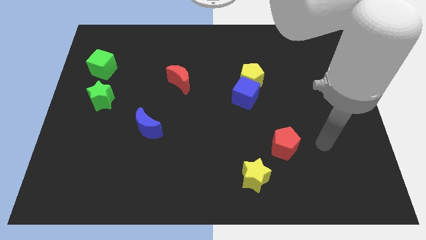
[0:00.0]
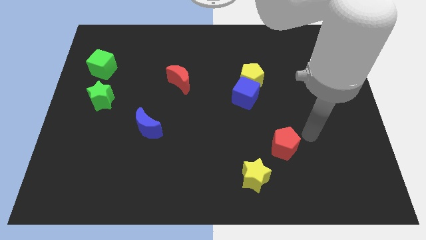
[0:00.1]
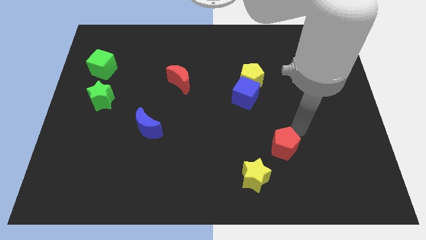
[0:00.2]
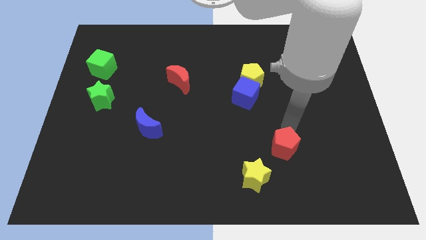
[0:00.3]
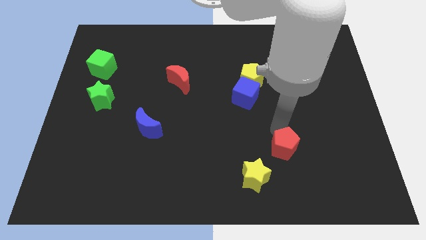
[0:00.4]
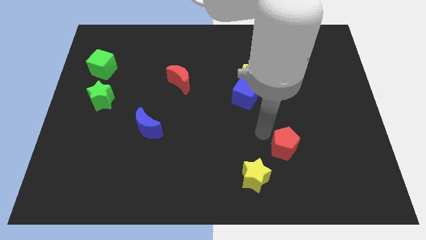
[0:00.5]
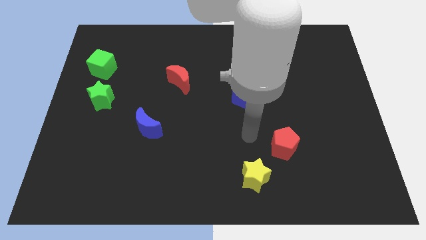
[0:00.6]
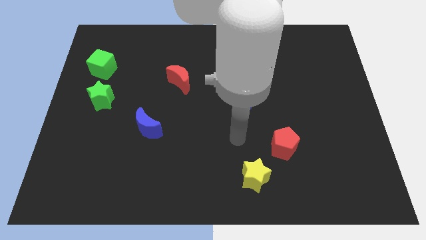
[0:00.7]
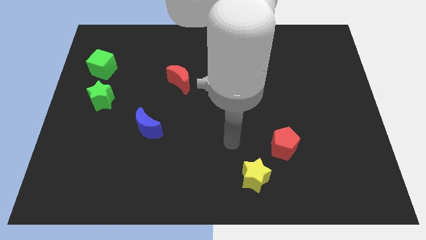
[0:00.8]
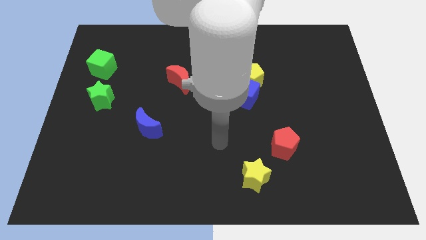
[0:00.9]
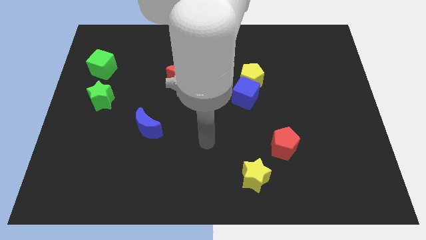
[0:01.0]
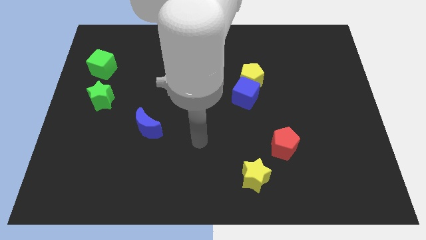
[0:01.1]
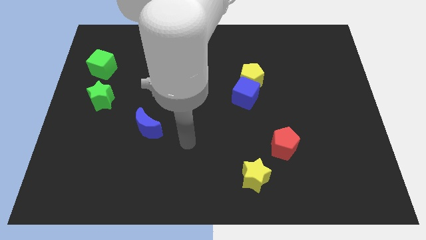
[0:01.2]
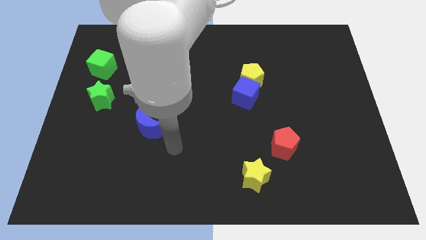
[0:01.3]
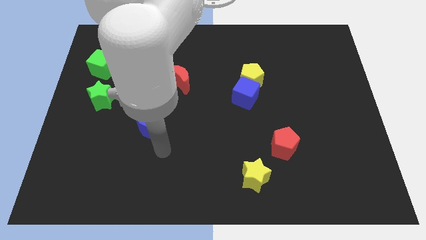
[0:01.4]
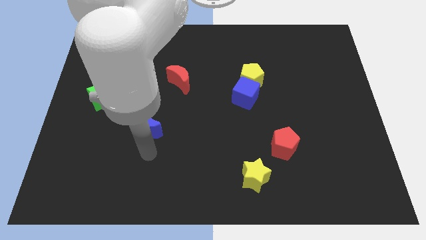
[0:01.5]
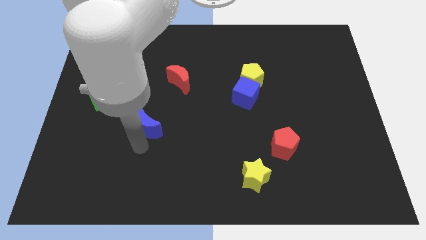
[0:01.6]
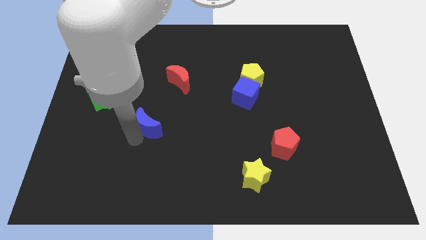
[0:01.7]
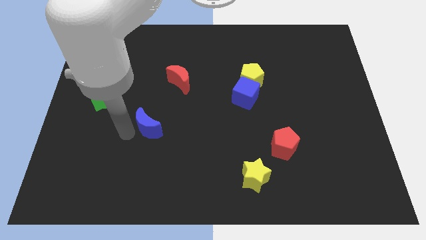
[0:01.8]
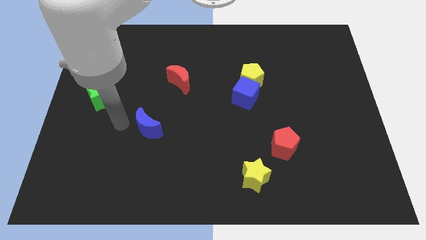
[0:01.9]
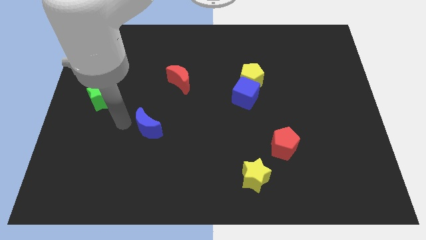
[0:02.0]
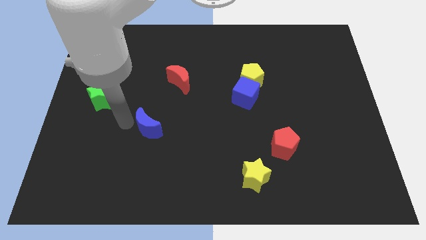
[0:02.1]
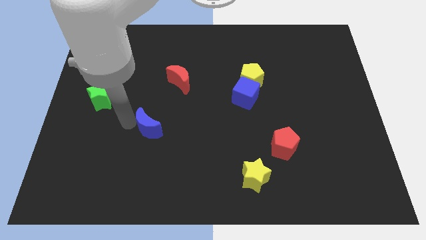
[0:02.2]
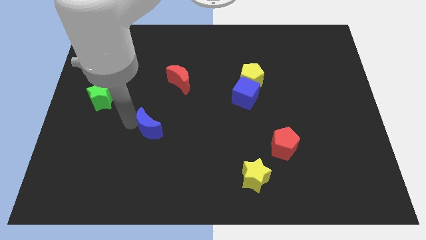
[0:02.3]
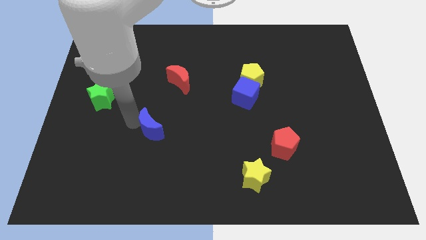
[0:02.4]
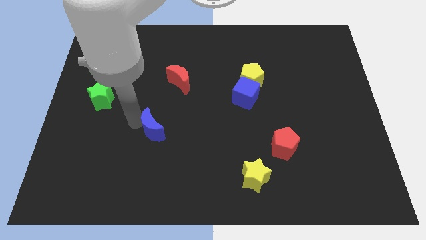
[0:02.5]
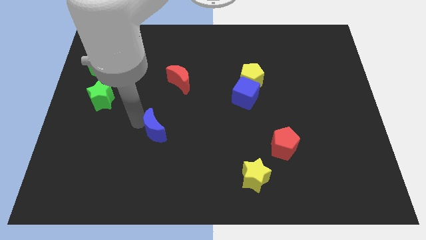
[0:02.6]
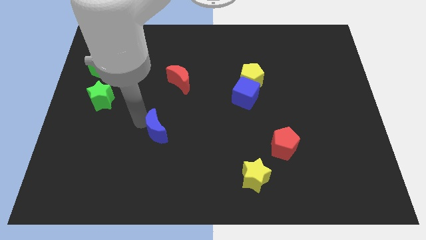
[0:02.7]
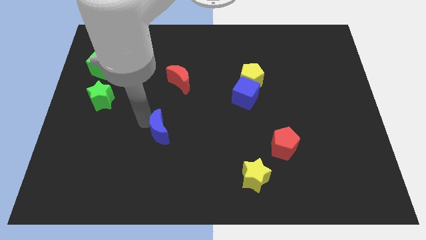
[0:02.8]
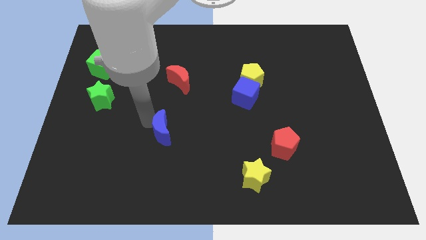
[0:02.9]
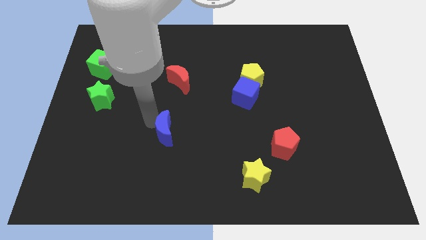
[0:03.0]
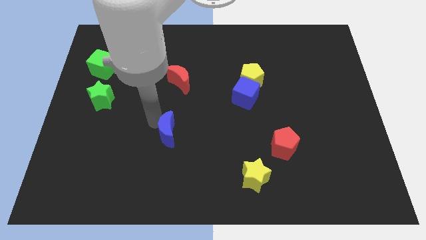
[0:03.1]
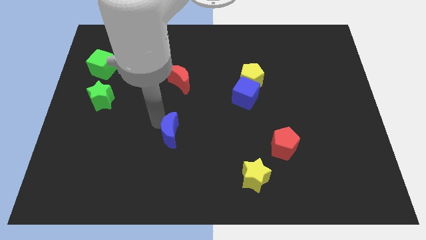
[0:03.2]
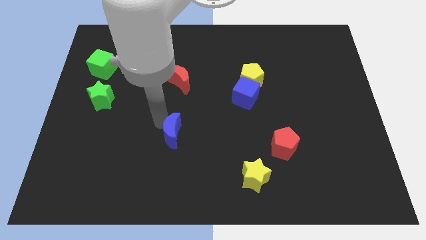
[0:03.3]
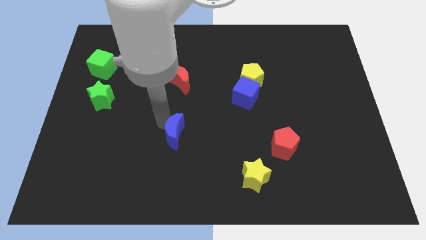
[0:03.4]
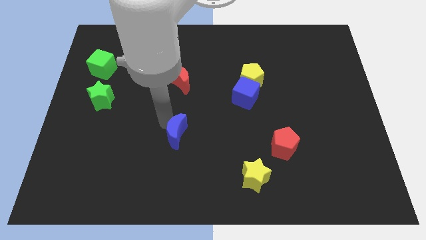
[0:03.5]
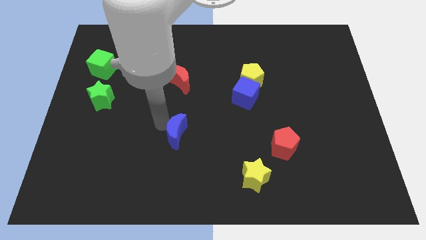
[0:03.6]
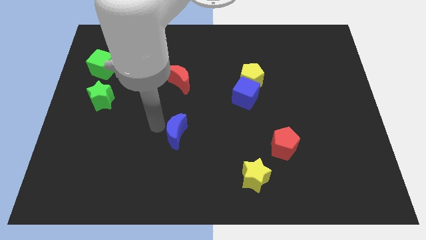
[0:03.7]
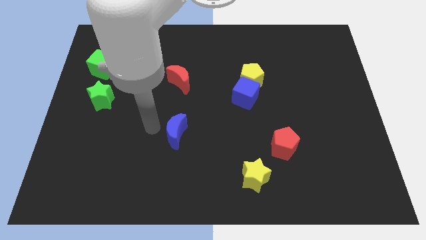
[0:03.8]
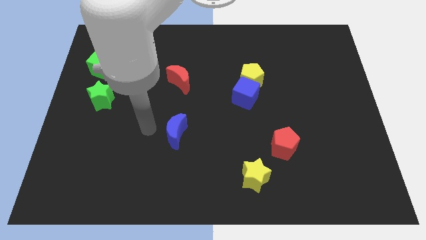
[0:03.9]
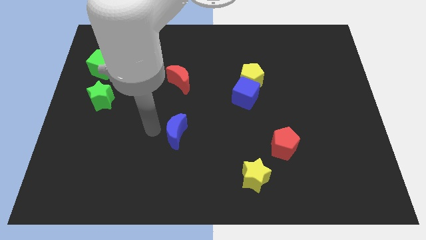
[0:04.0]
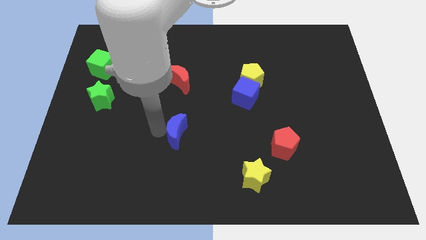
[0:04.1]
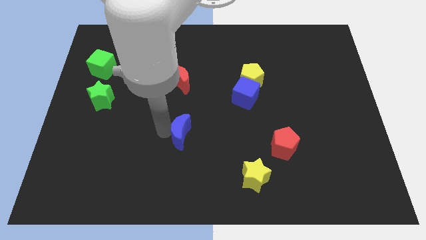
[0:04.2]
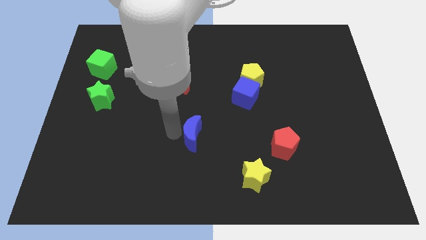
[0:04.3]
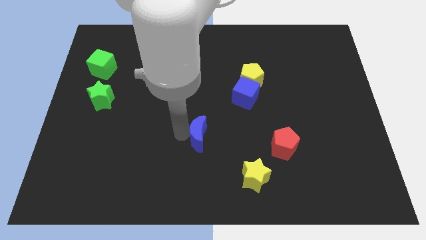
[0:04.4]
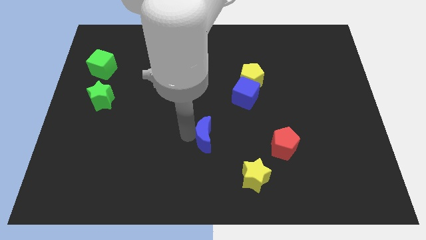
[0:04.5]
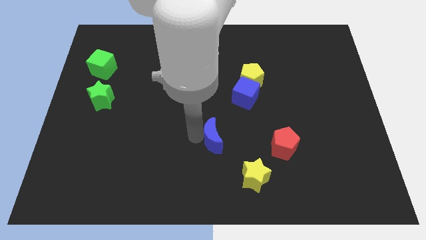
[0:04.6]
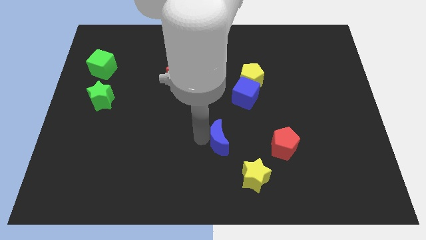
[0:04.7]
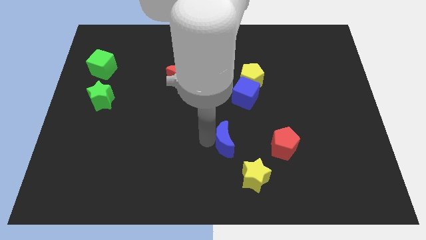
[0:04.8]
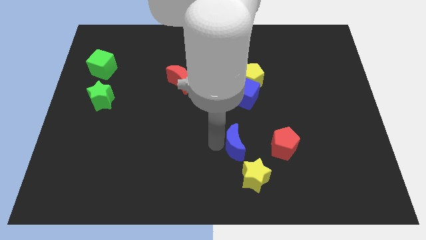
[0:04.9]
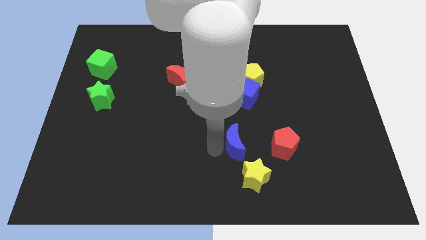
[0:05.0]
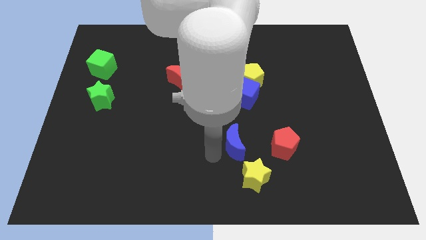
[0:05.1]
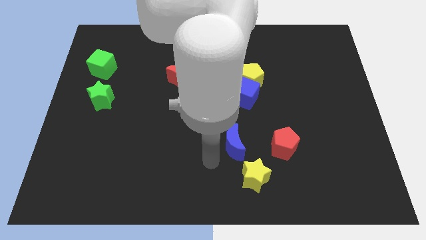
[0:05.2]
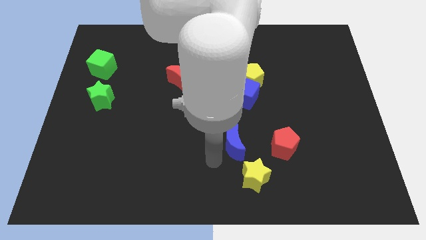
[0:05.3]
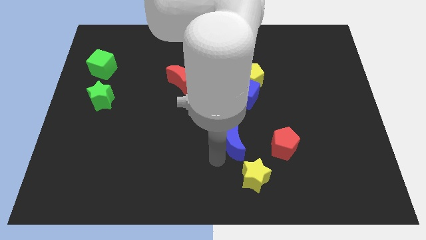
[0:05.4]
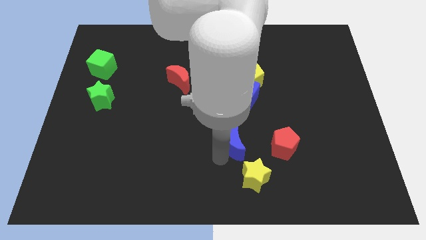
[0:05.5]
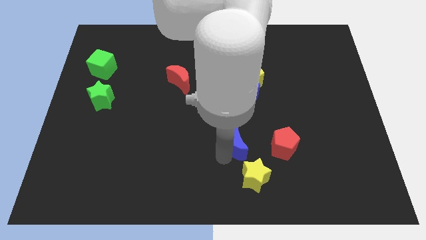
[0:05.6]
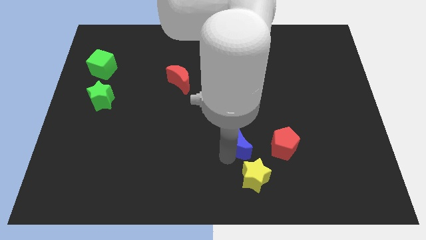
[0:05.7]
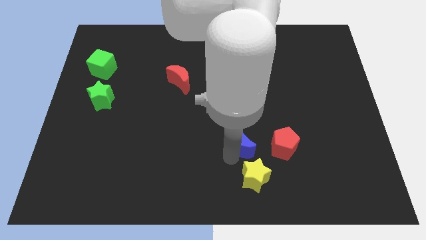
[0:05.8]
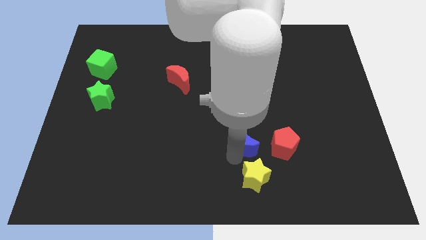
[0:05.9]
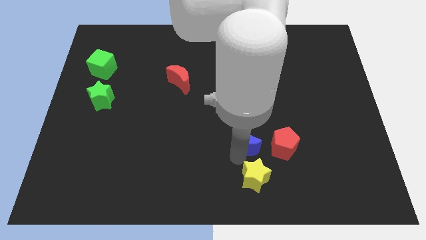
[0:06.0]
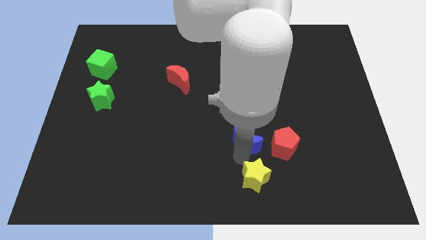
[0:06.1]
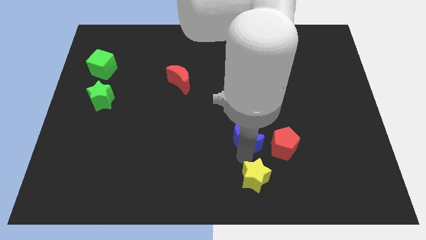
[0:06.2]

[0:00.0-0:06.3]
move the blue moon diagonally up and to the left of the red pentagon

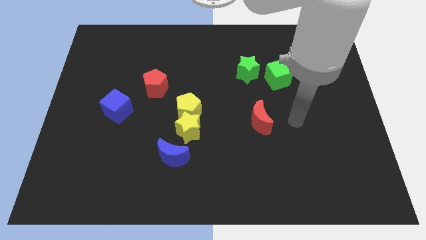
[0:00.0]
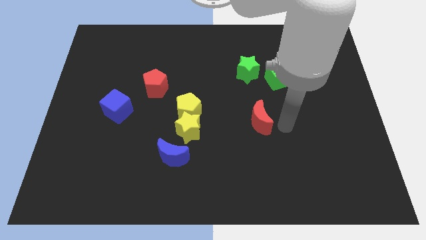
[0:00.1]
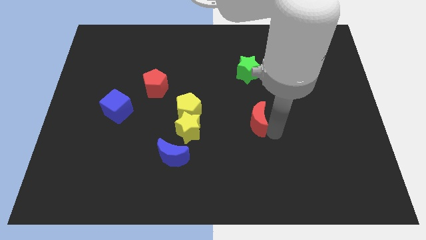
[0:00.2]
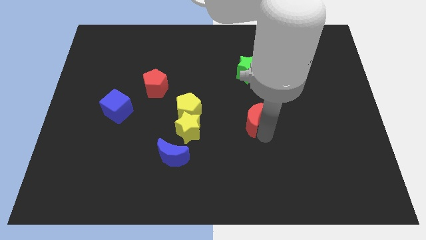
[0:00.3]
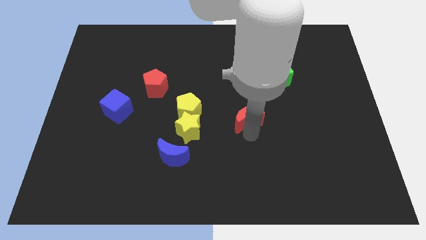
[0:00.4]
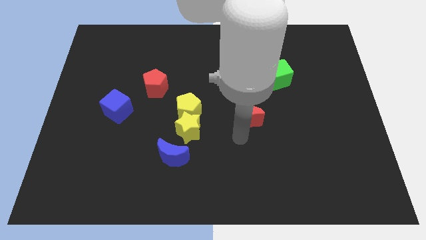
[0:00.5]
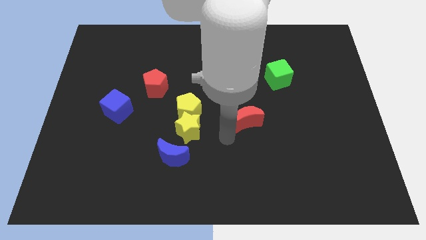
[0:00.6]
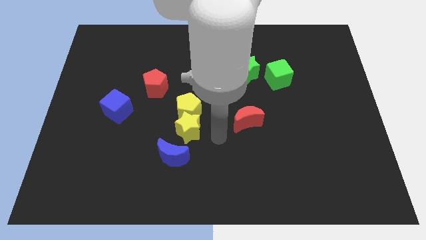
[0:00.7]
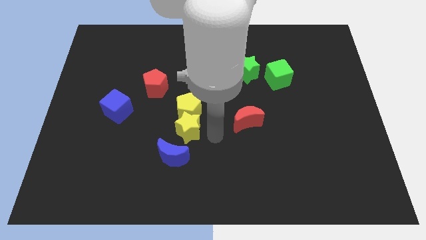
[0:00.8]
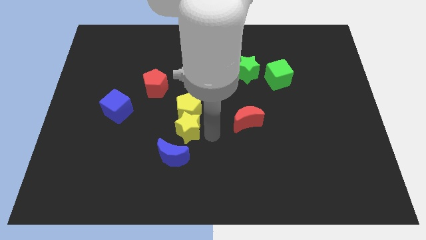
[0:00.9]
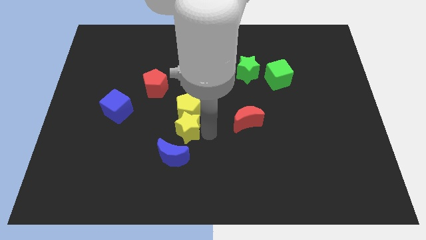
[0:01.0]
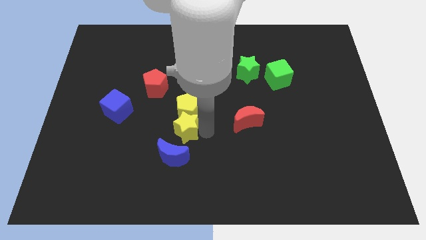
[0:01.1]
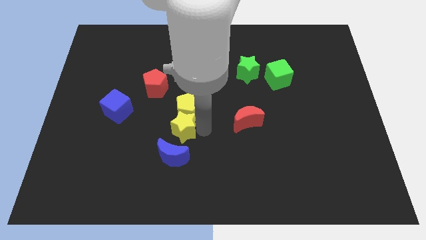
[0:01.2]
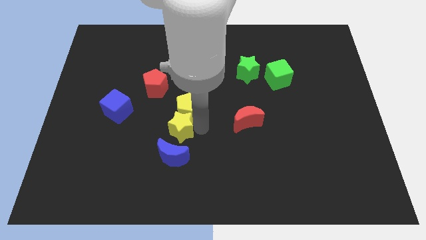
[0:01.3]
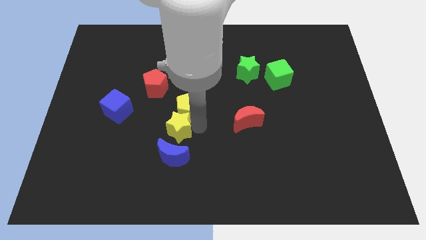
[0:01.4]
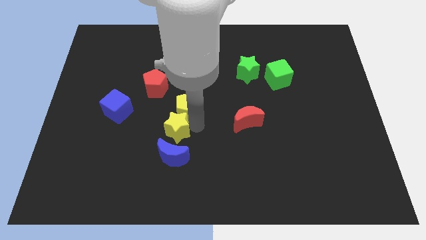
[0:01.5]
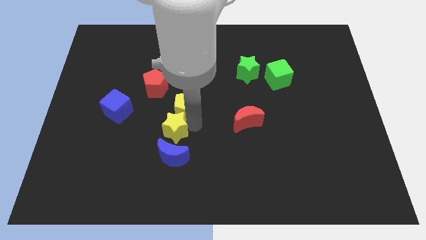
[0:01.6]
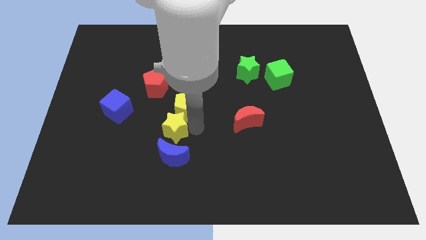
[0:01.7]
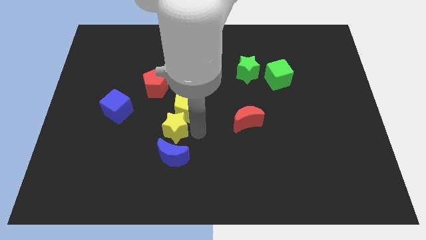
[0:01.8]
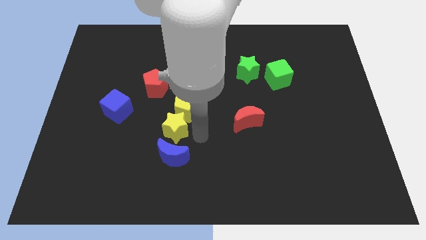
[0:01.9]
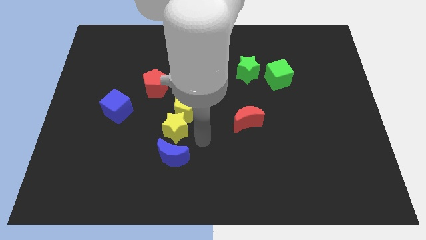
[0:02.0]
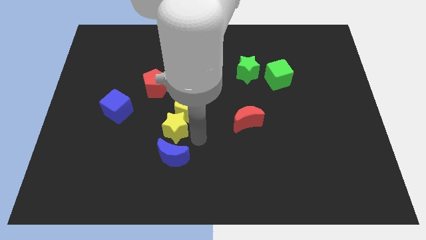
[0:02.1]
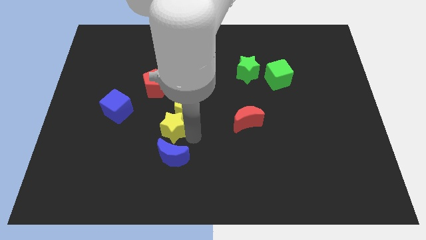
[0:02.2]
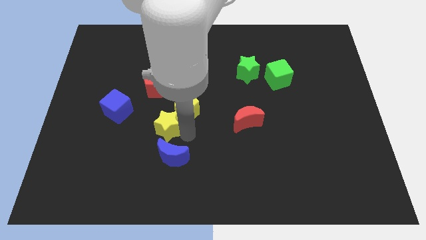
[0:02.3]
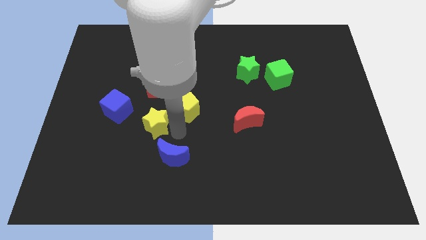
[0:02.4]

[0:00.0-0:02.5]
move the yellow star to the left side of the yellow pentagon
